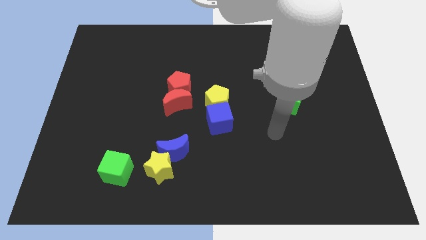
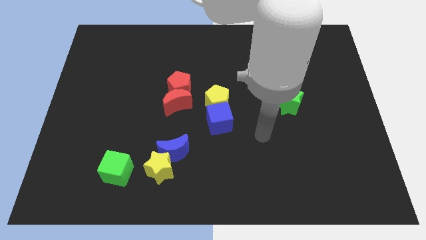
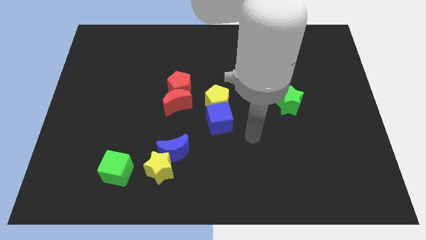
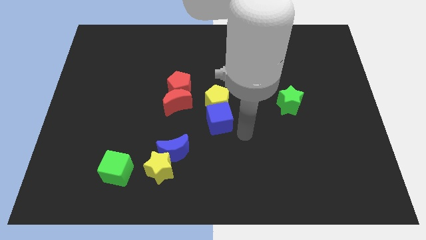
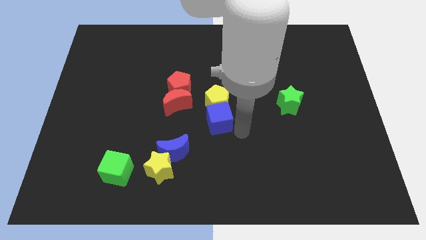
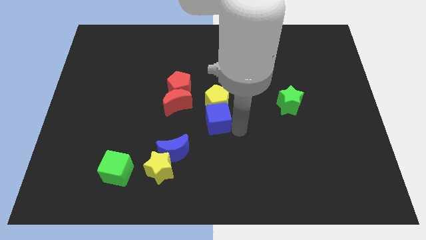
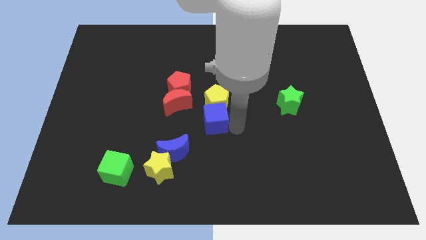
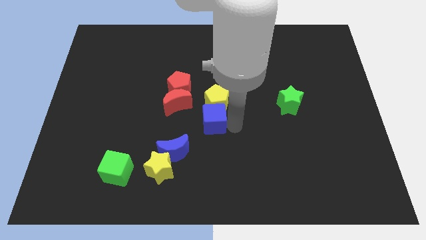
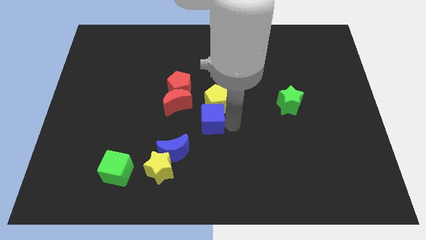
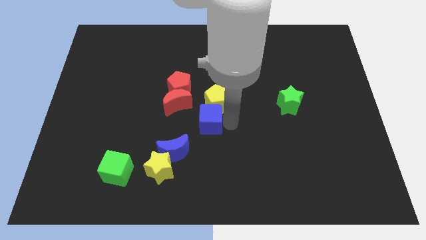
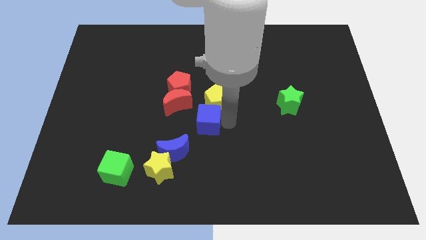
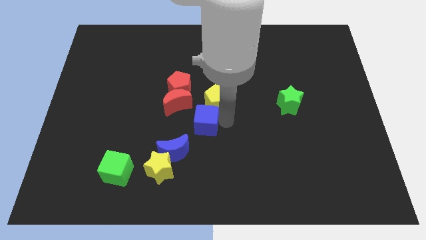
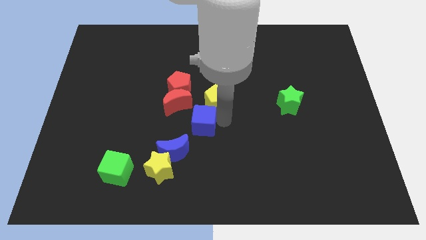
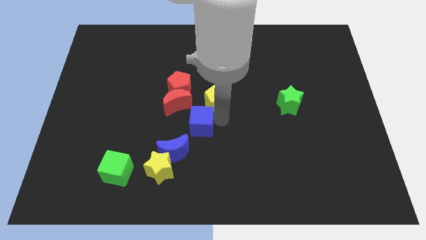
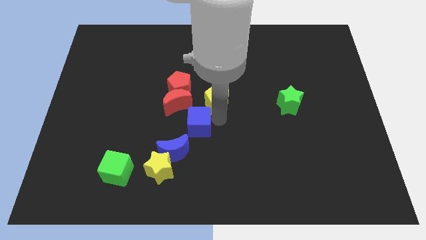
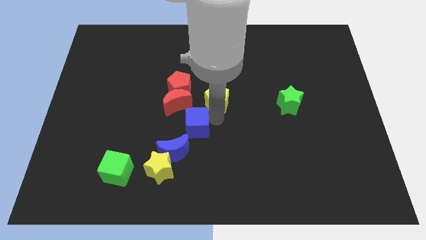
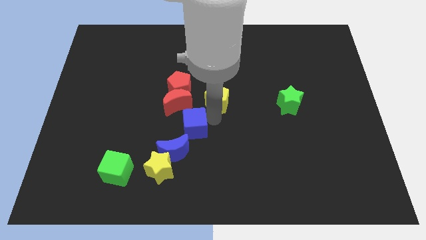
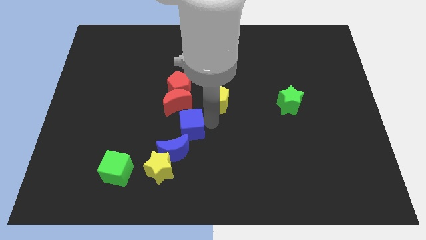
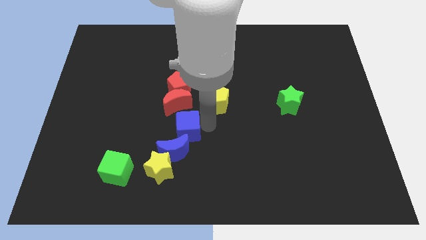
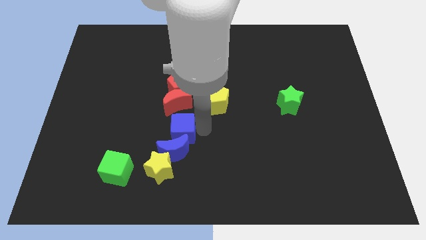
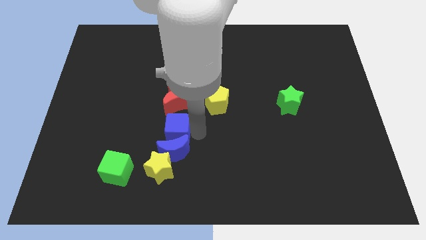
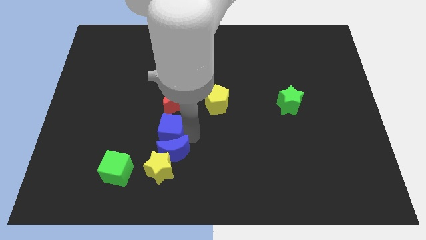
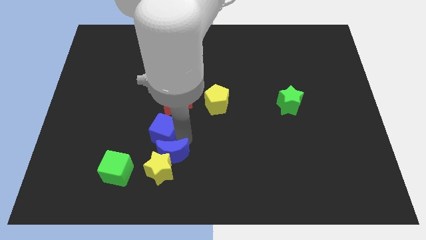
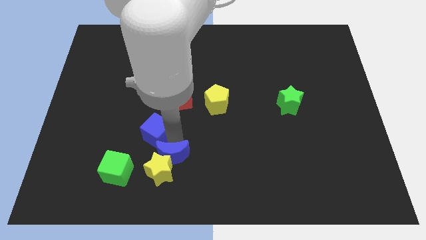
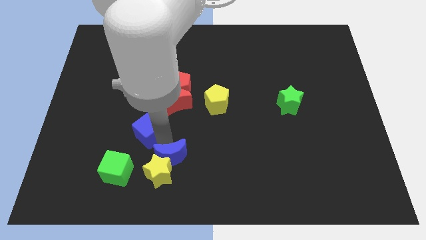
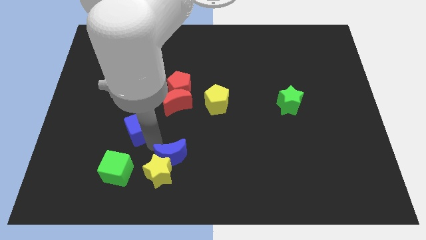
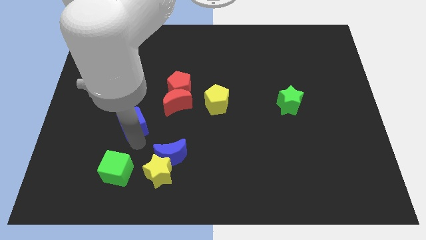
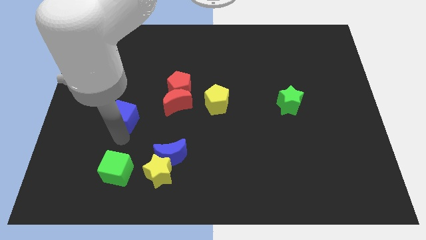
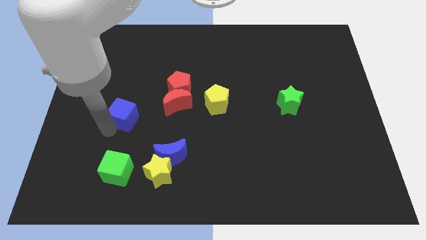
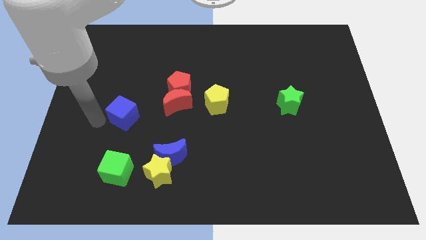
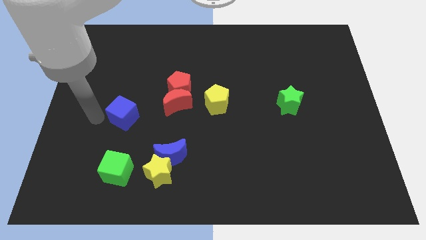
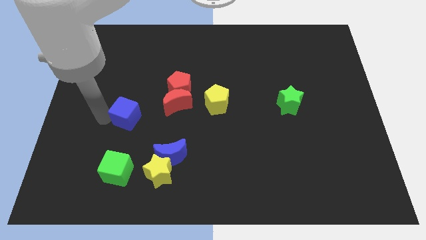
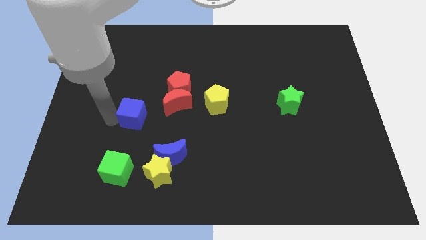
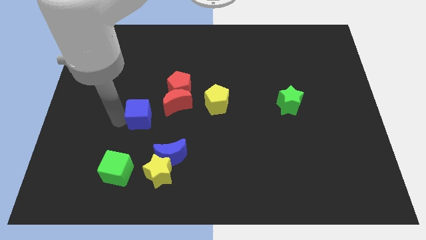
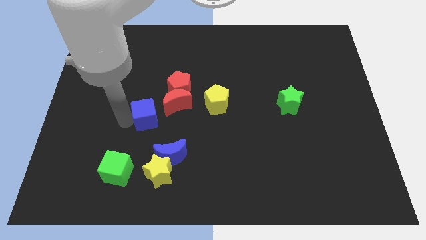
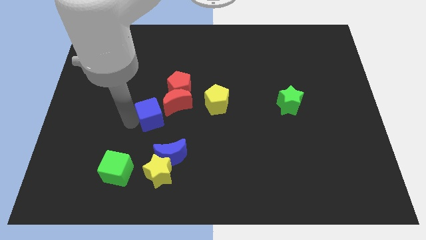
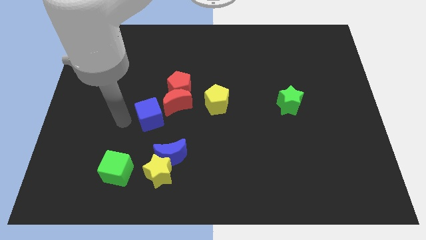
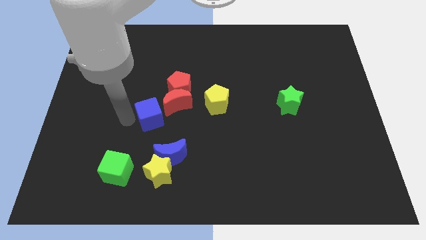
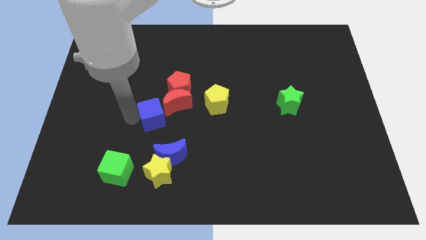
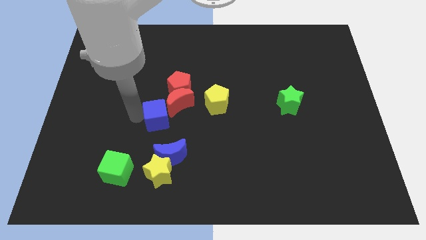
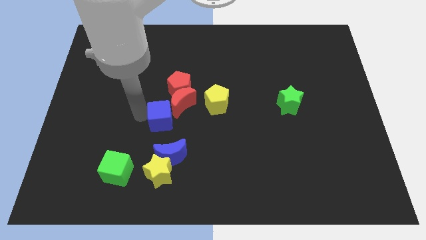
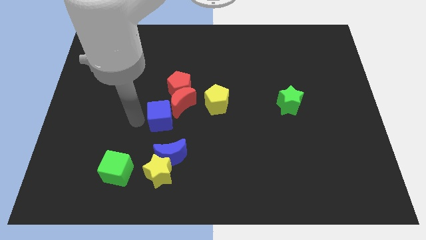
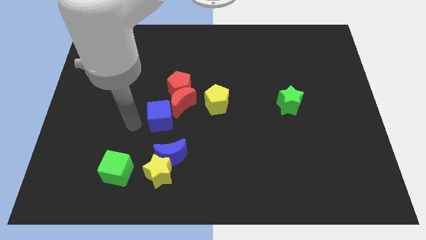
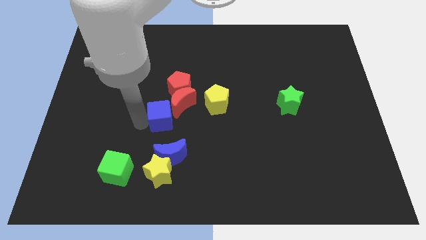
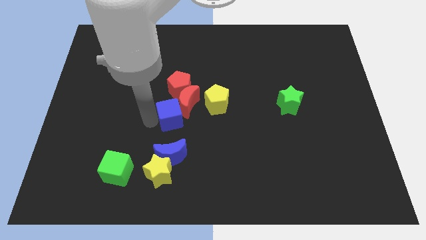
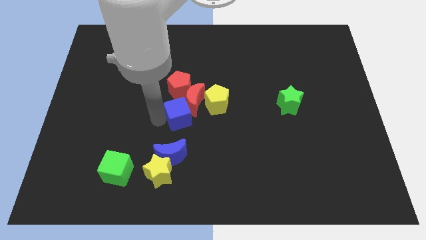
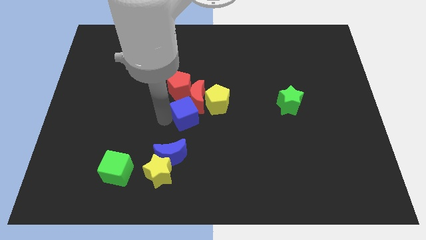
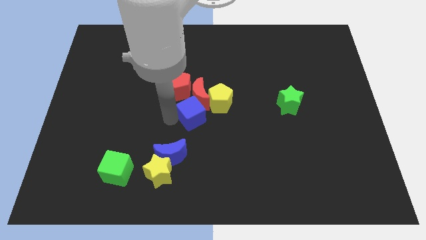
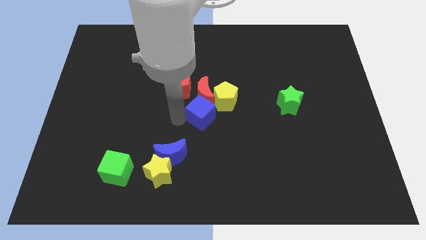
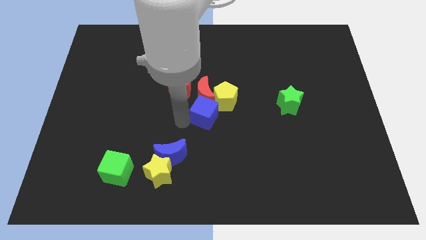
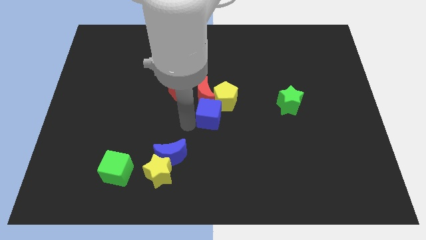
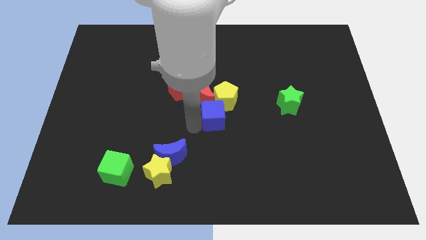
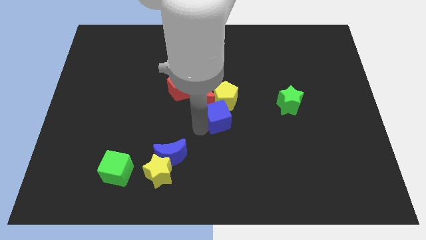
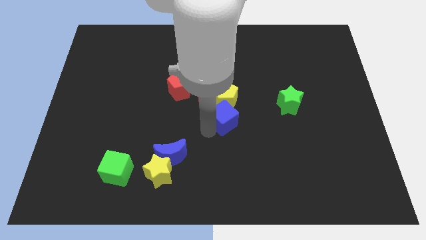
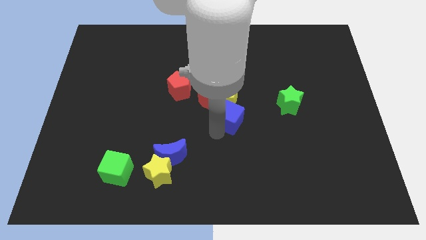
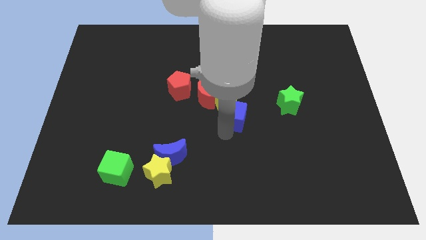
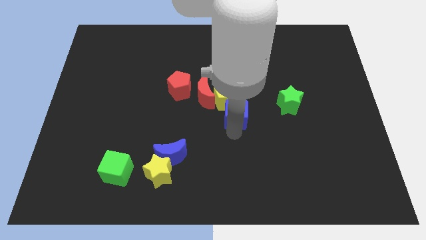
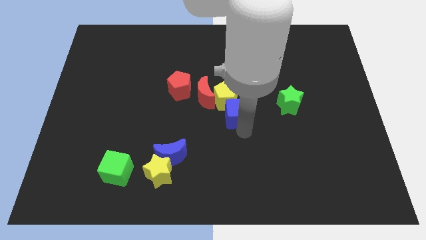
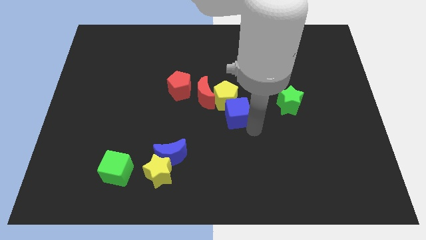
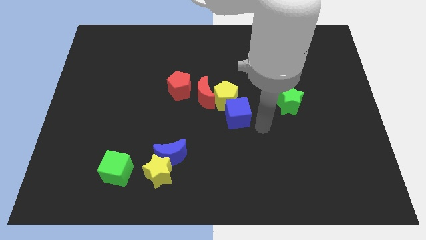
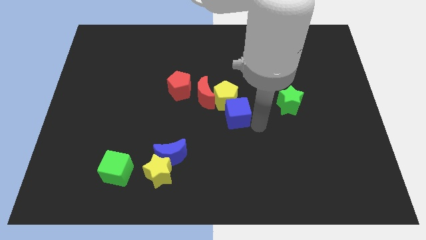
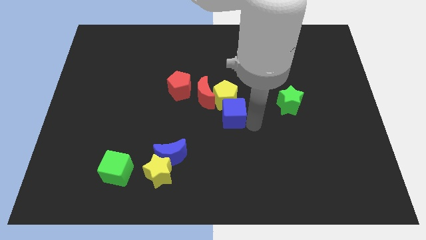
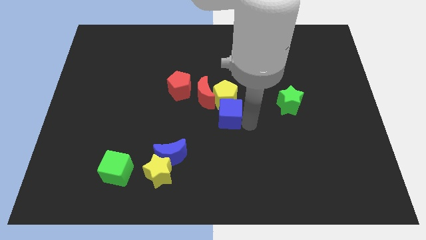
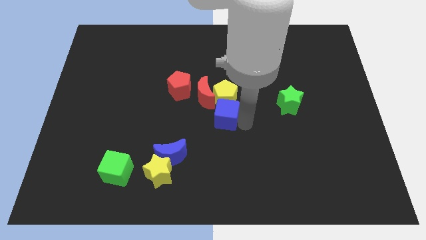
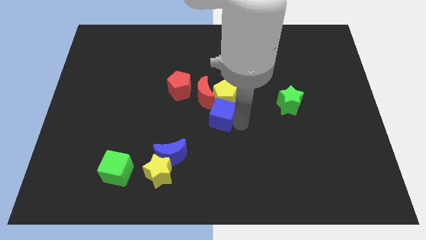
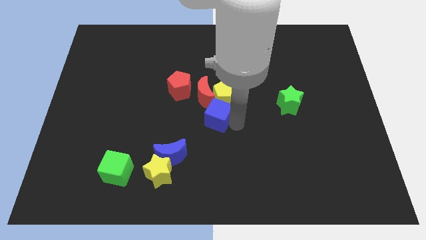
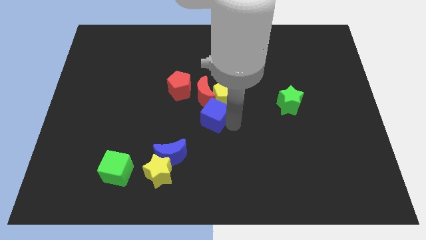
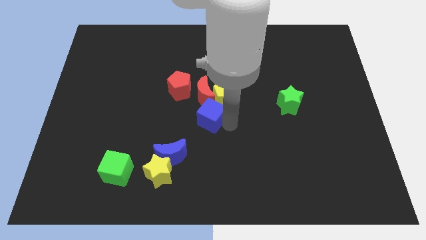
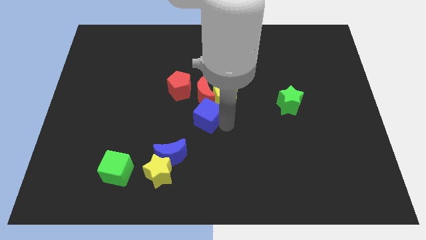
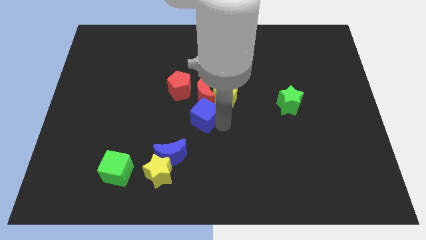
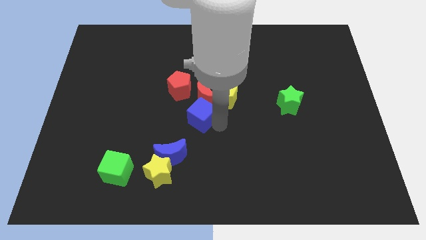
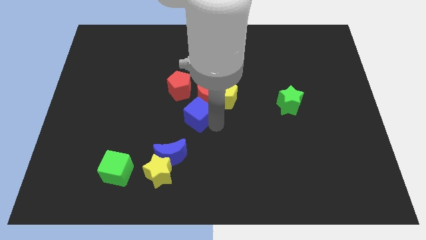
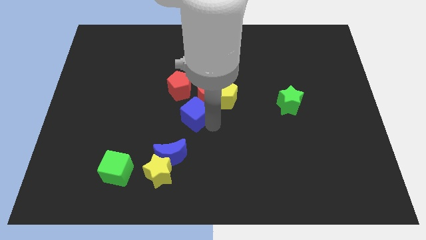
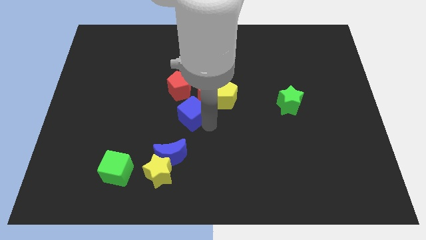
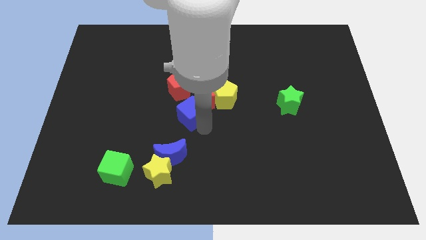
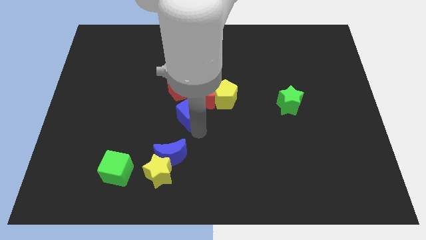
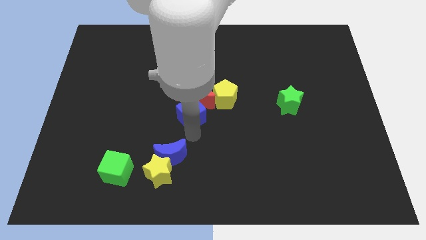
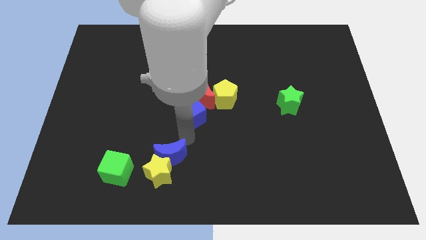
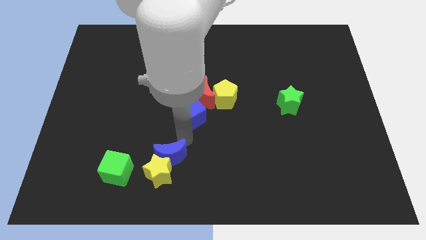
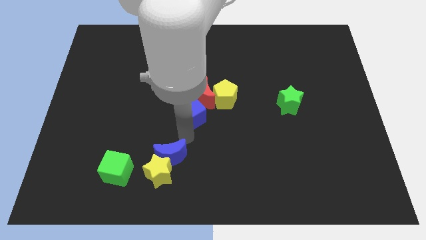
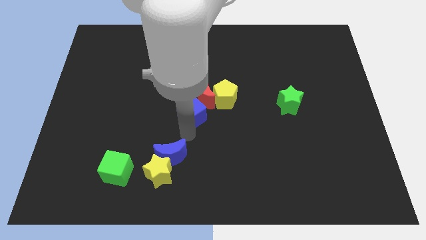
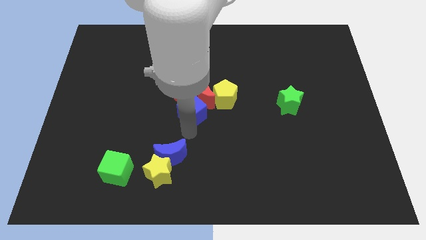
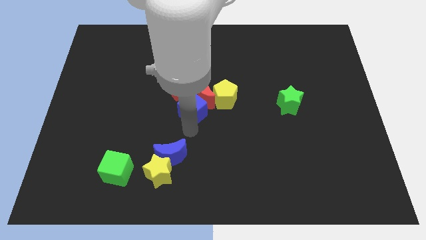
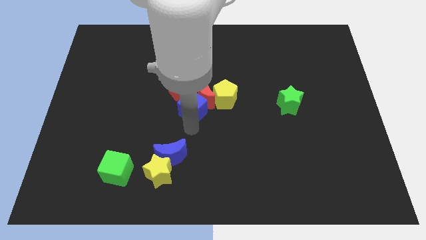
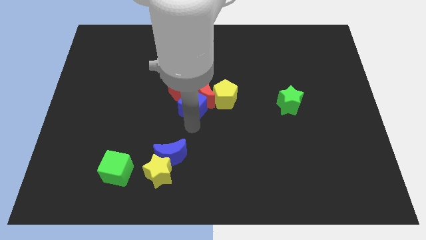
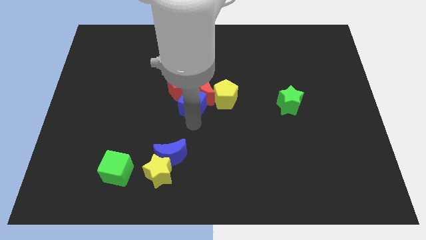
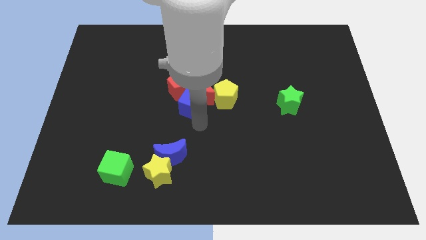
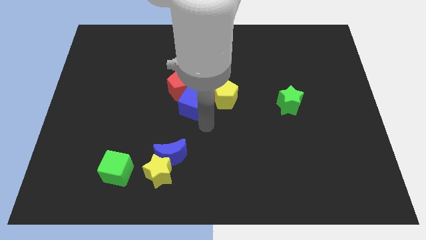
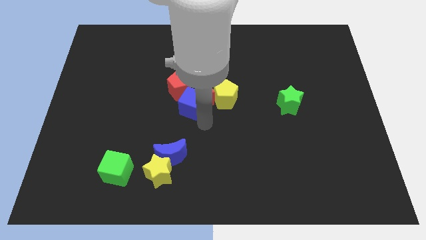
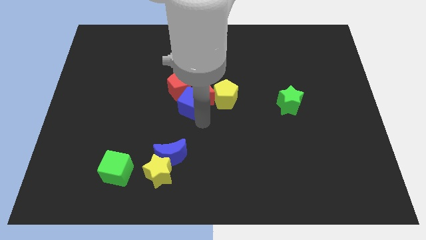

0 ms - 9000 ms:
put the blue cube to the red pentagon
